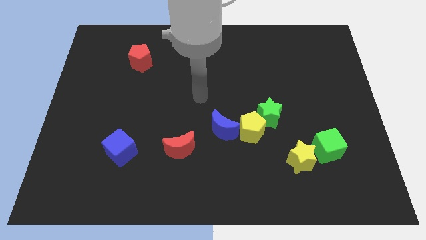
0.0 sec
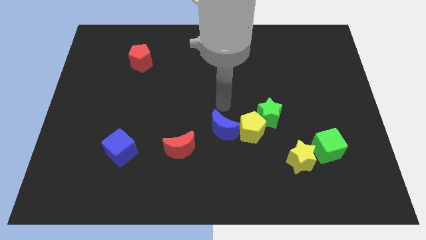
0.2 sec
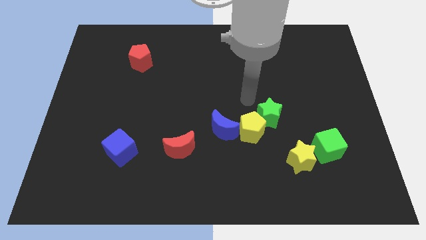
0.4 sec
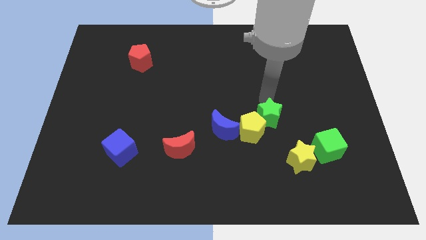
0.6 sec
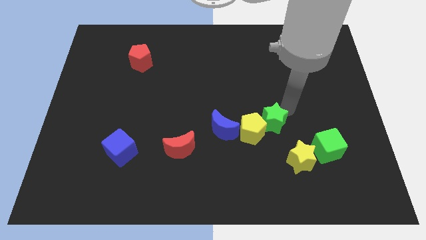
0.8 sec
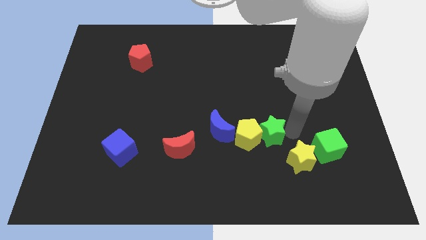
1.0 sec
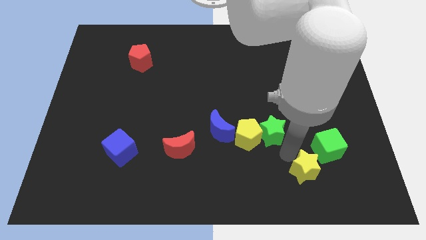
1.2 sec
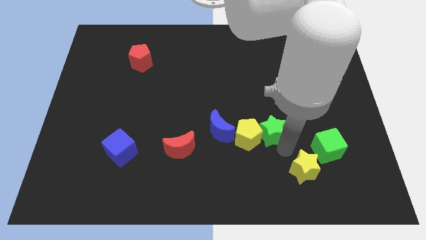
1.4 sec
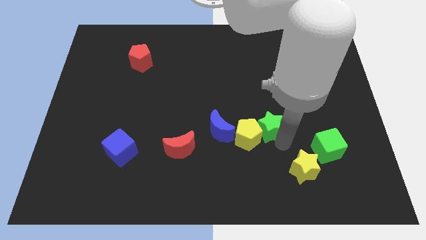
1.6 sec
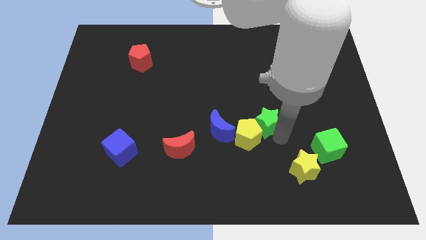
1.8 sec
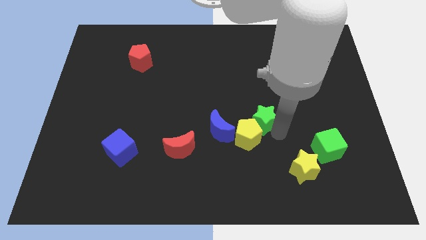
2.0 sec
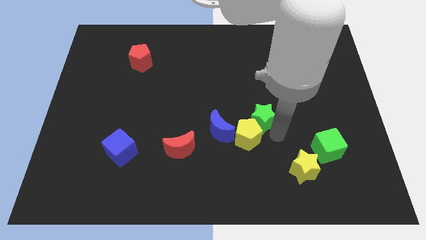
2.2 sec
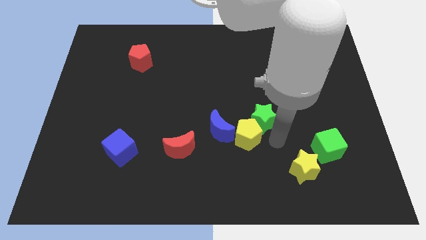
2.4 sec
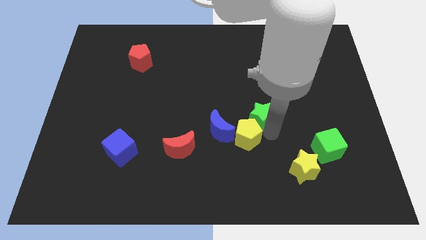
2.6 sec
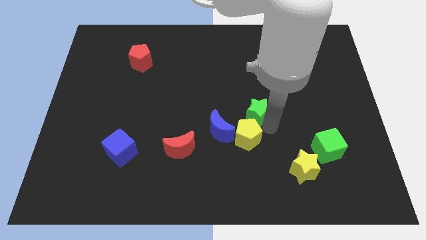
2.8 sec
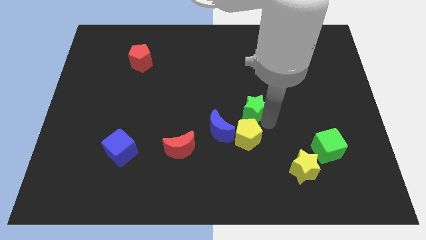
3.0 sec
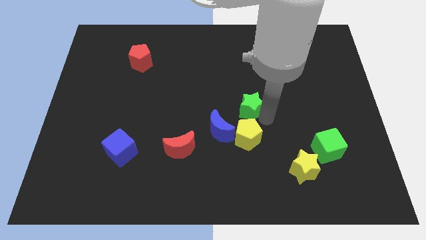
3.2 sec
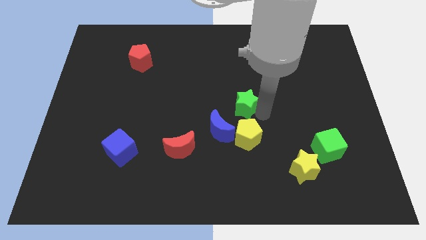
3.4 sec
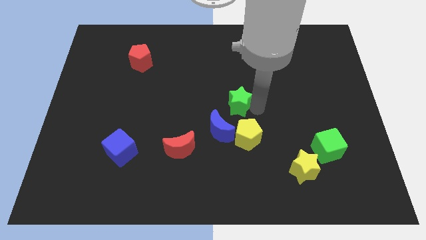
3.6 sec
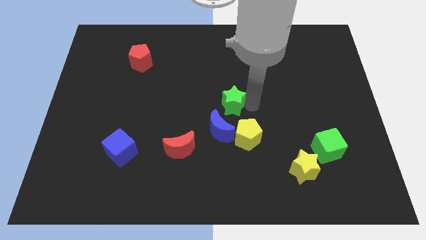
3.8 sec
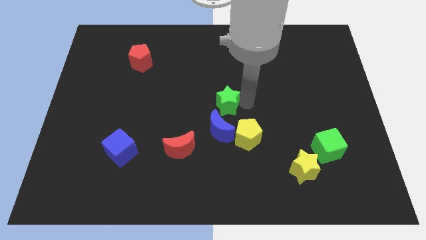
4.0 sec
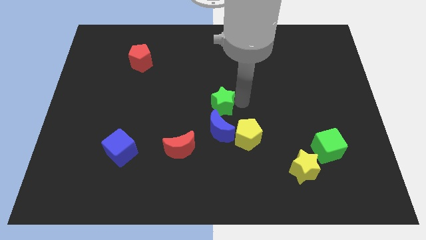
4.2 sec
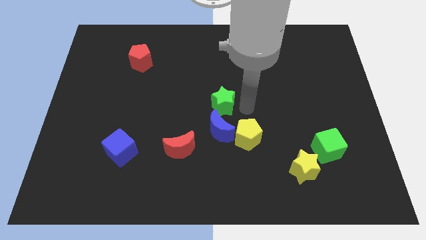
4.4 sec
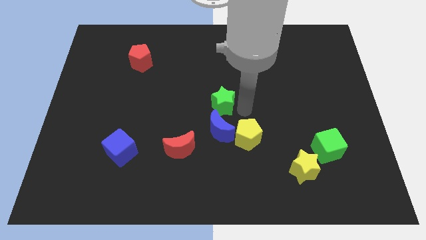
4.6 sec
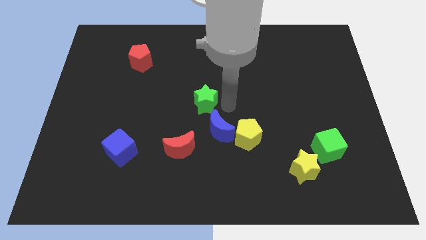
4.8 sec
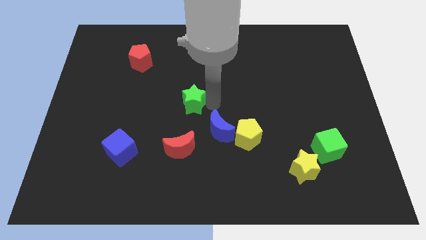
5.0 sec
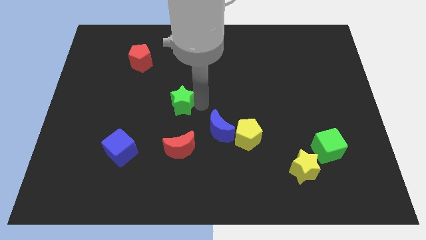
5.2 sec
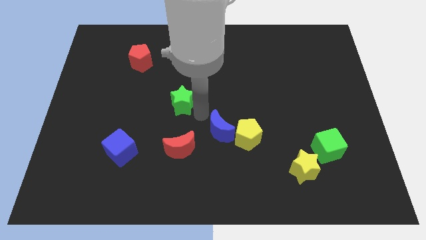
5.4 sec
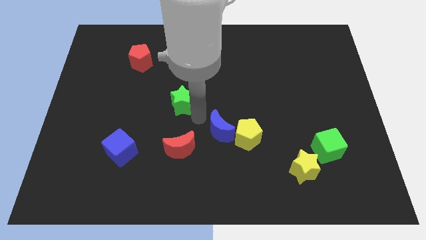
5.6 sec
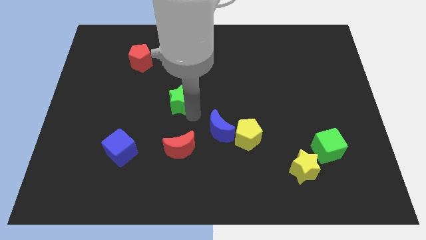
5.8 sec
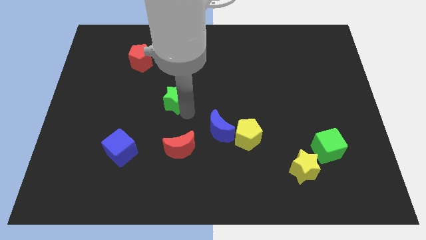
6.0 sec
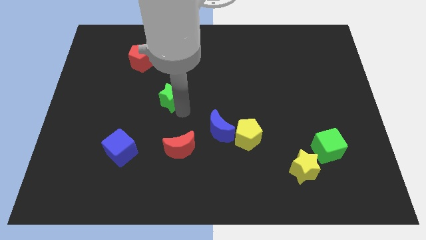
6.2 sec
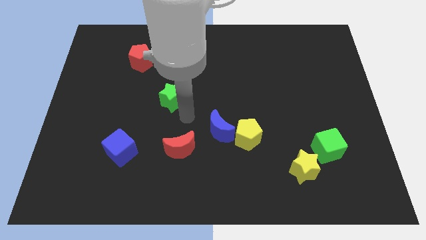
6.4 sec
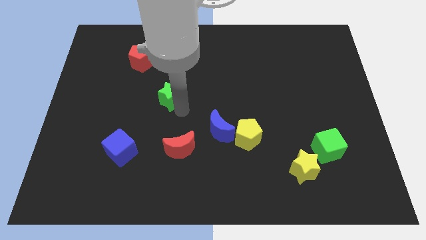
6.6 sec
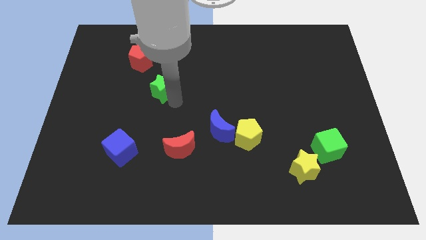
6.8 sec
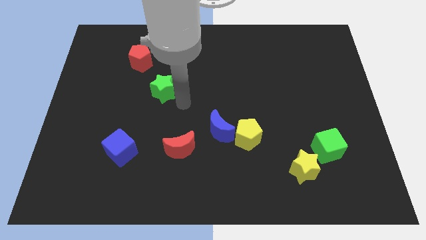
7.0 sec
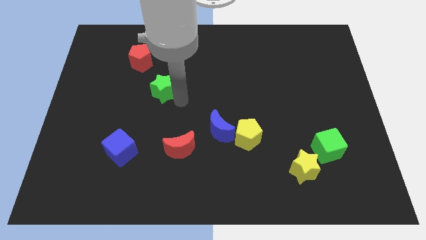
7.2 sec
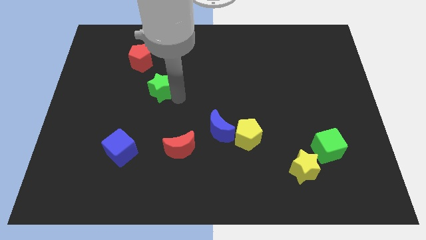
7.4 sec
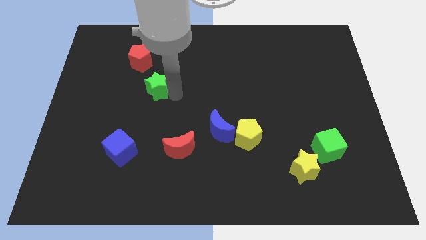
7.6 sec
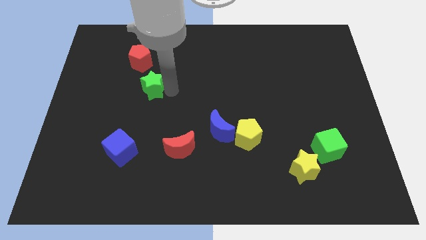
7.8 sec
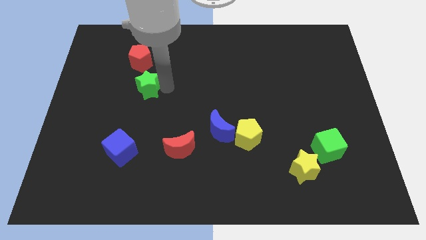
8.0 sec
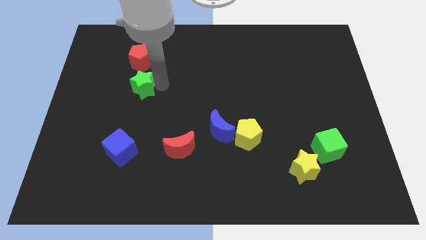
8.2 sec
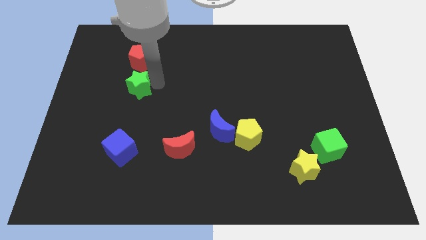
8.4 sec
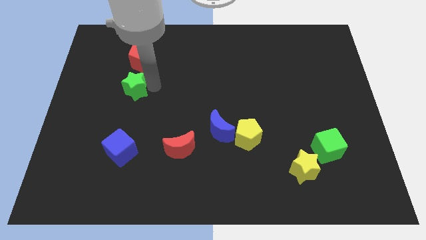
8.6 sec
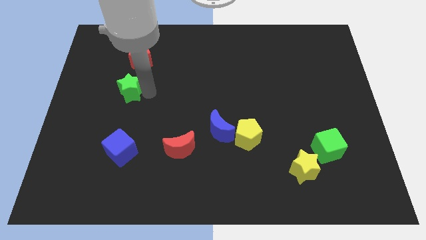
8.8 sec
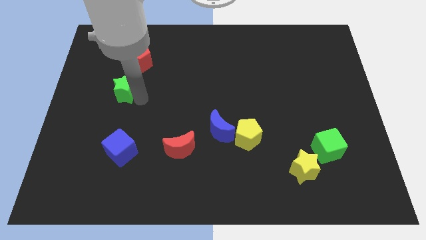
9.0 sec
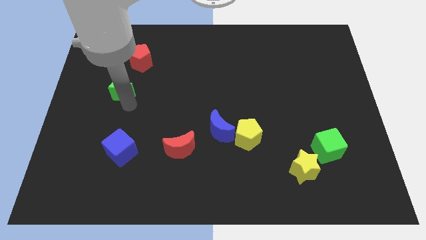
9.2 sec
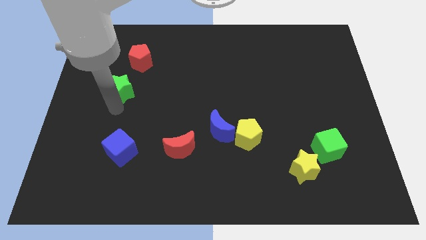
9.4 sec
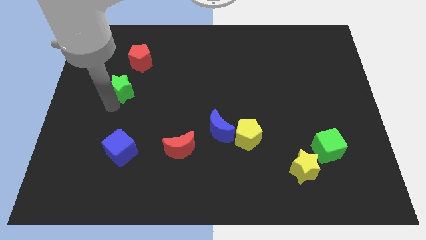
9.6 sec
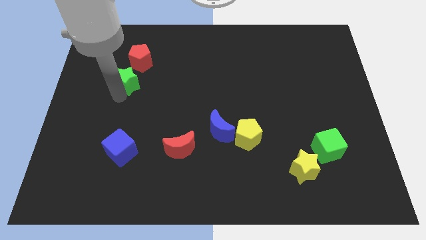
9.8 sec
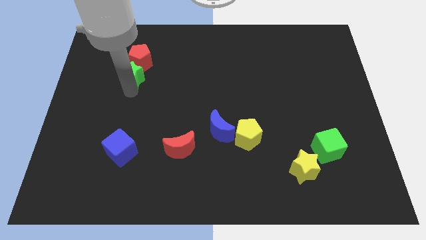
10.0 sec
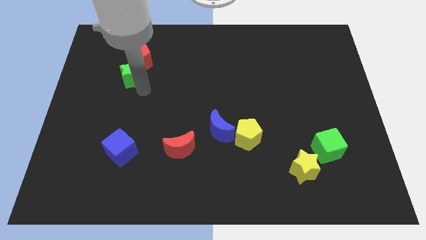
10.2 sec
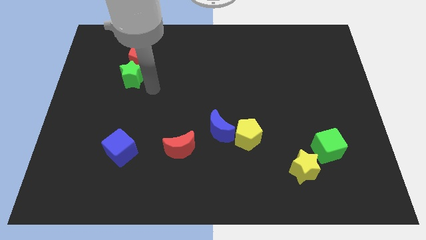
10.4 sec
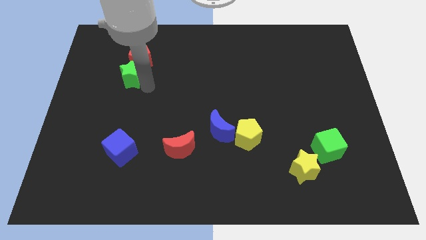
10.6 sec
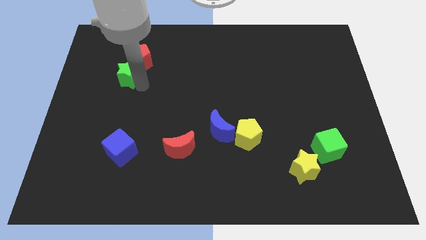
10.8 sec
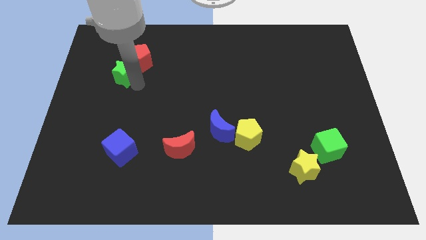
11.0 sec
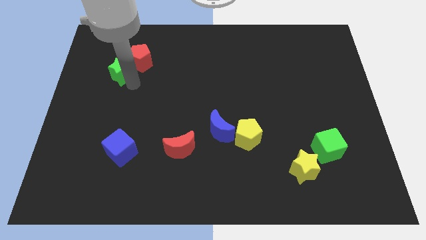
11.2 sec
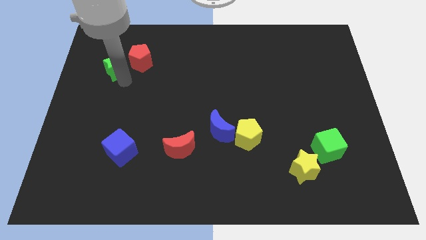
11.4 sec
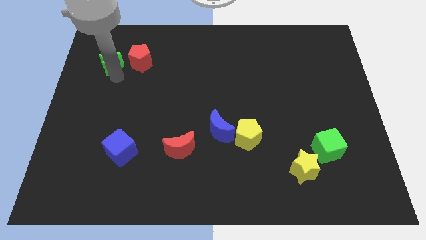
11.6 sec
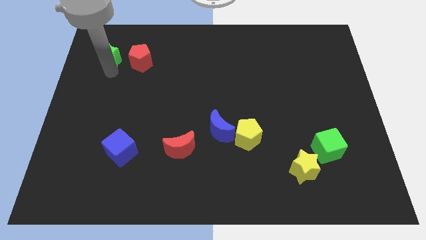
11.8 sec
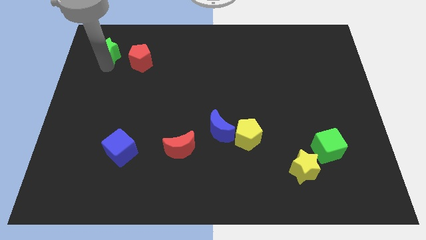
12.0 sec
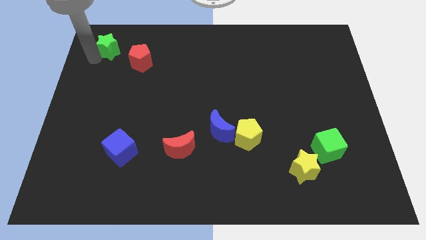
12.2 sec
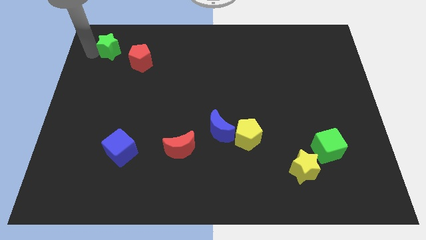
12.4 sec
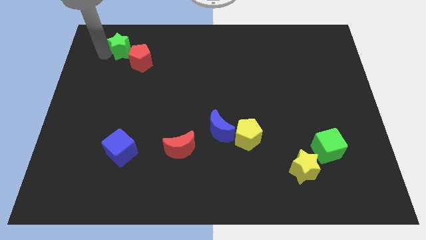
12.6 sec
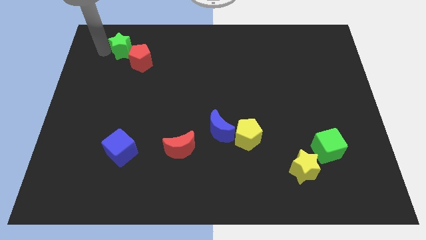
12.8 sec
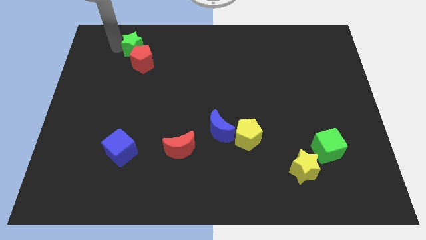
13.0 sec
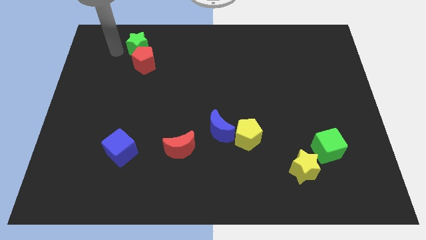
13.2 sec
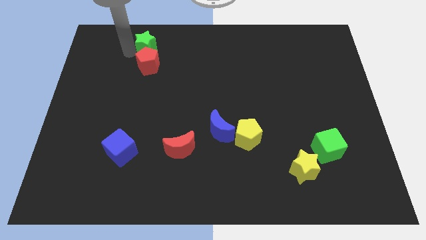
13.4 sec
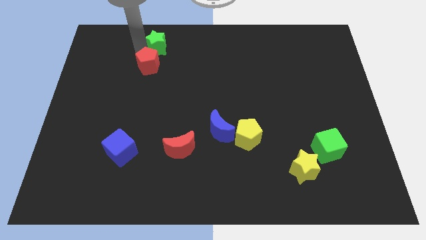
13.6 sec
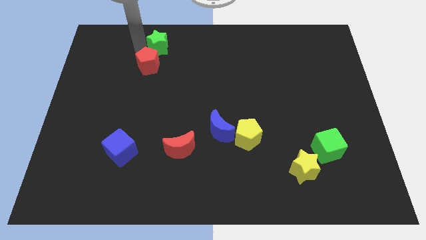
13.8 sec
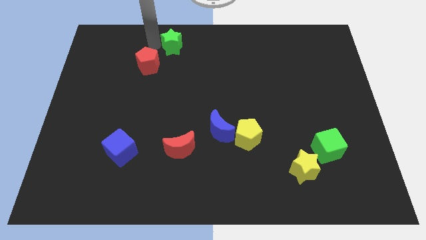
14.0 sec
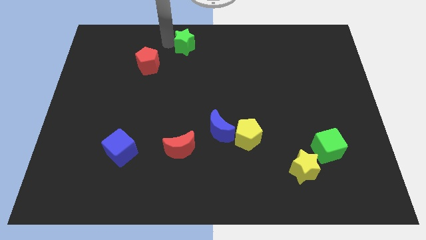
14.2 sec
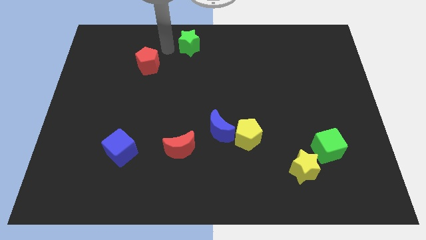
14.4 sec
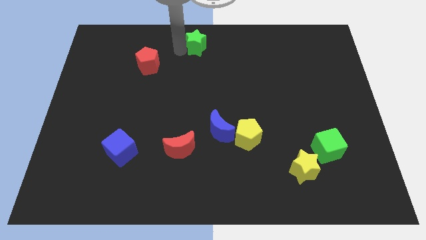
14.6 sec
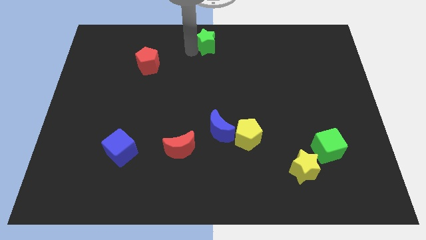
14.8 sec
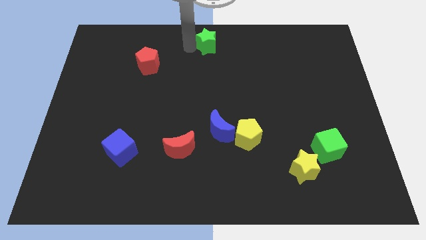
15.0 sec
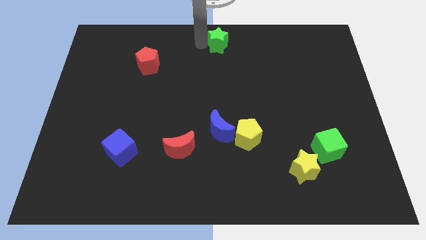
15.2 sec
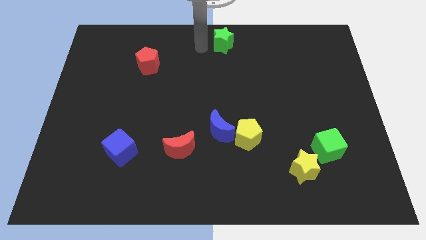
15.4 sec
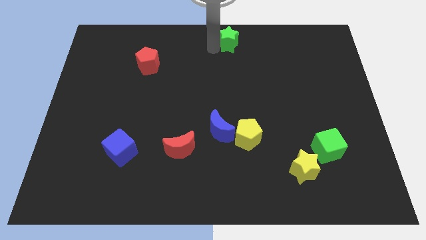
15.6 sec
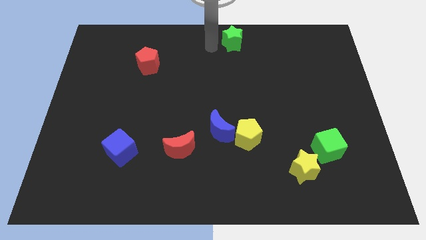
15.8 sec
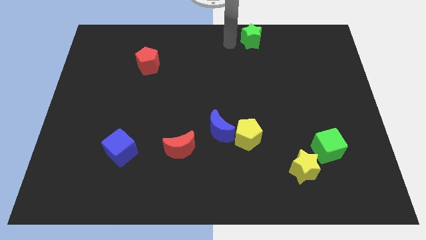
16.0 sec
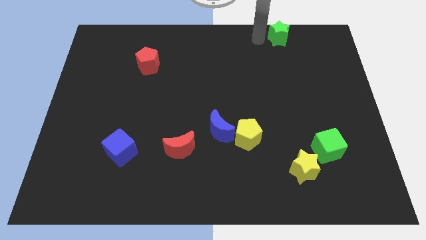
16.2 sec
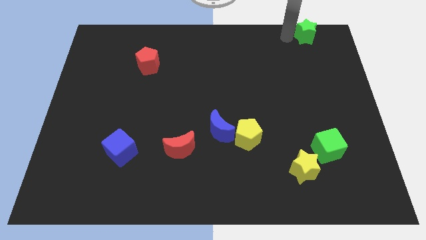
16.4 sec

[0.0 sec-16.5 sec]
push the green star to the upper right corner
